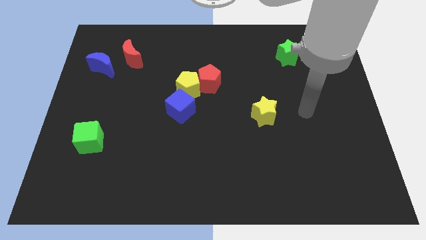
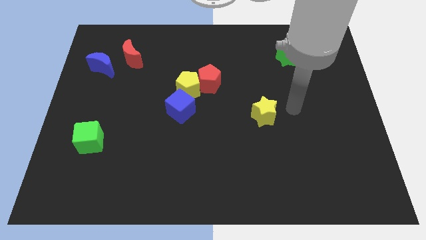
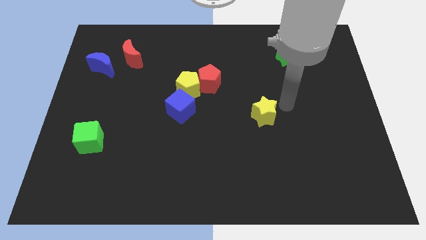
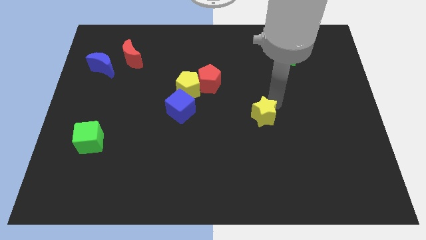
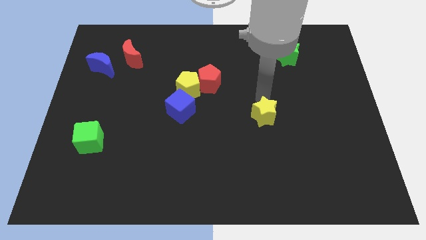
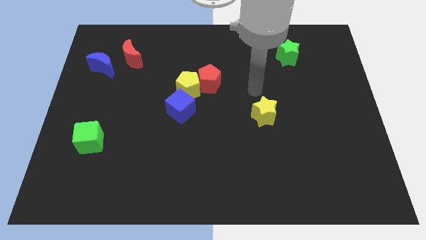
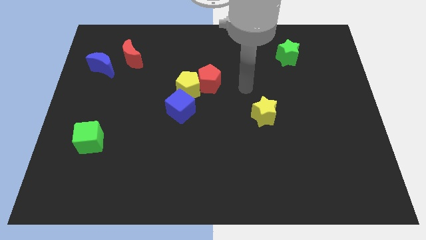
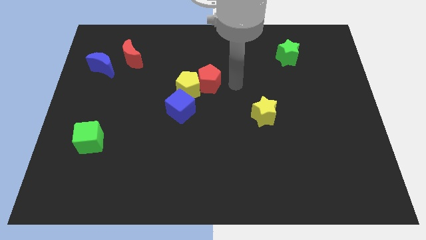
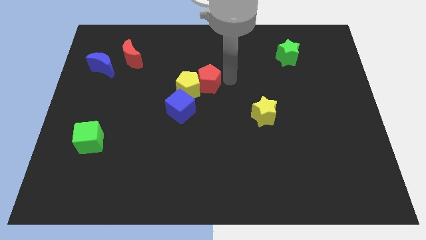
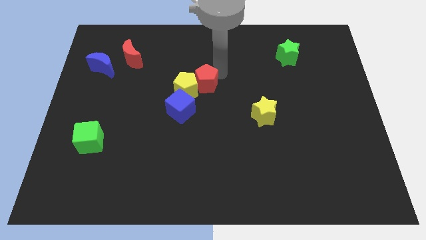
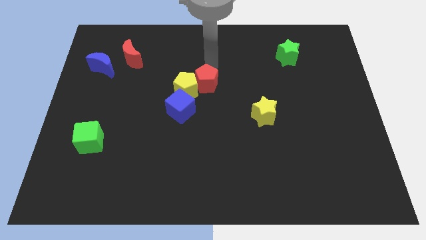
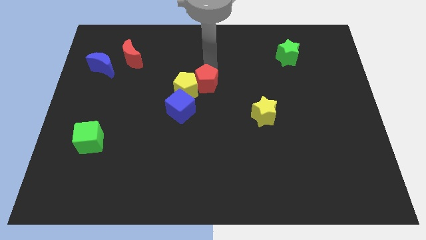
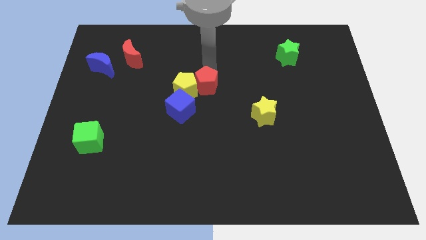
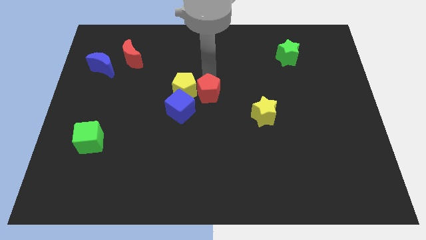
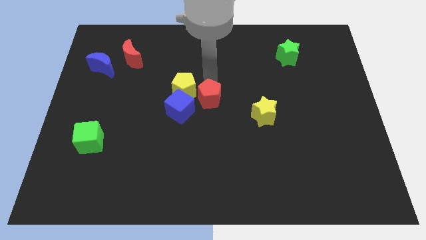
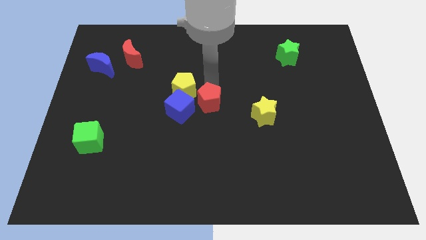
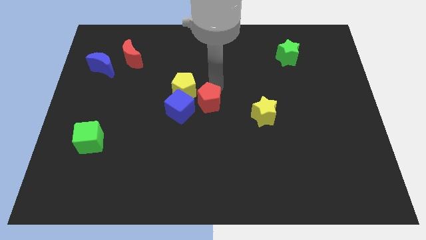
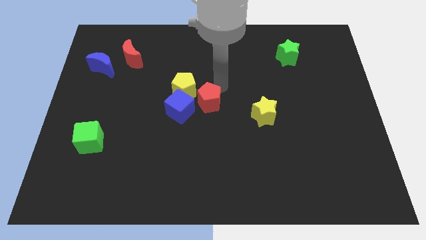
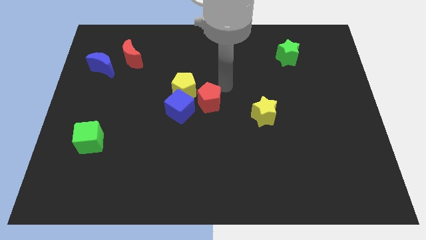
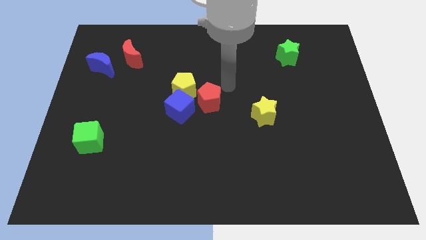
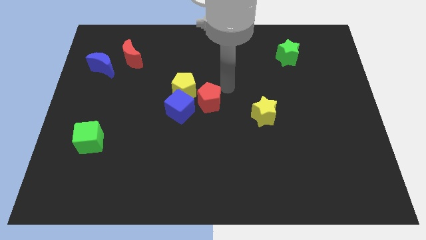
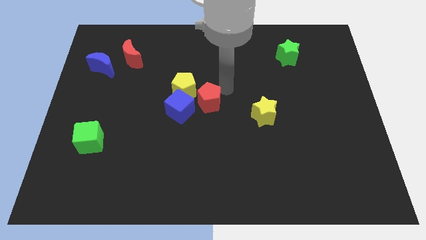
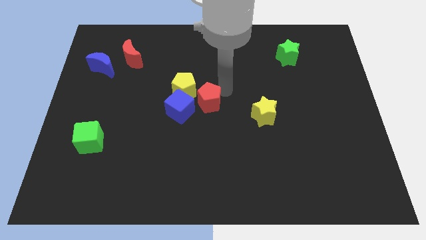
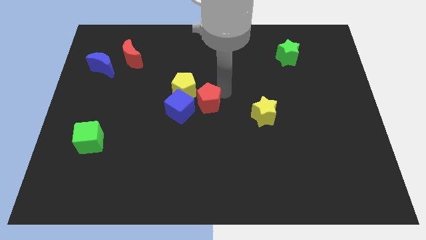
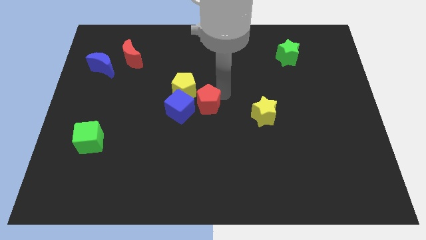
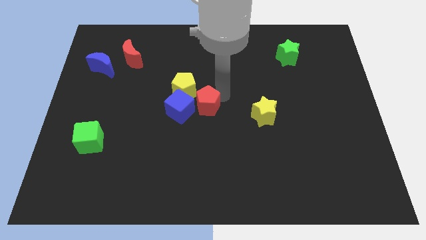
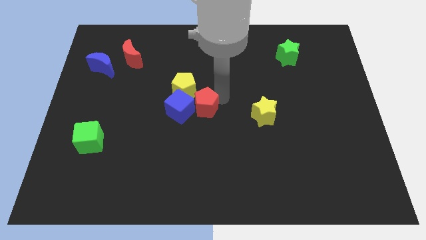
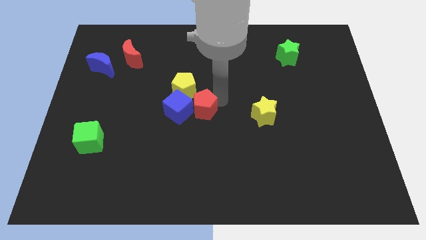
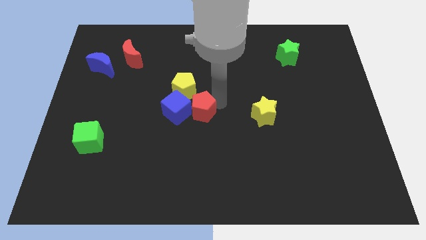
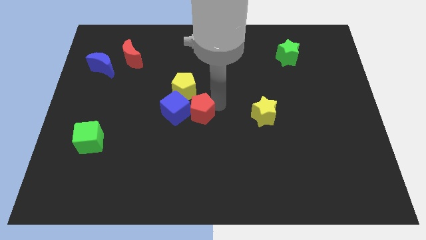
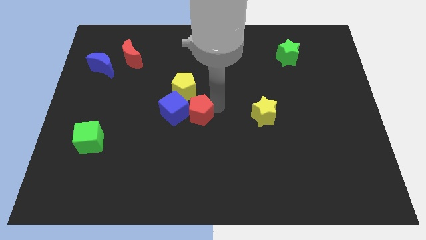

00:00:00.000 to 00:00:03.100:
slightly push the red pentagon diagonally down and left

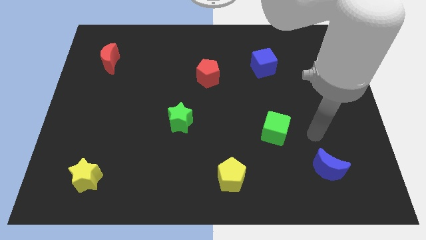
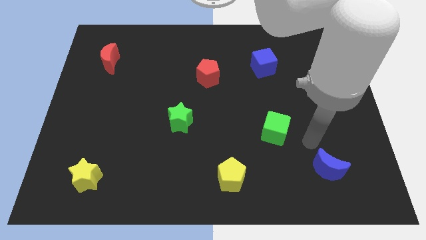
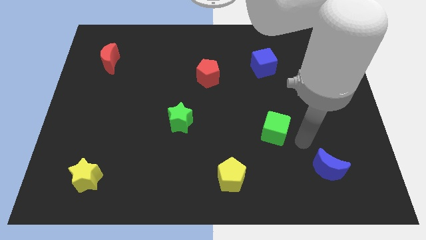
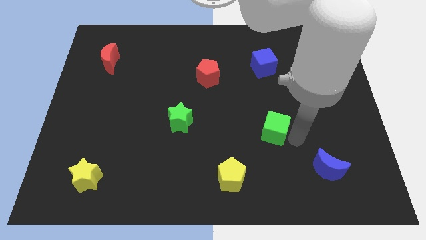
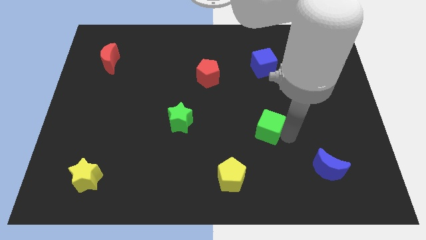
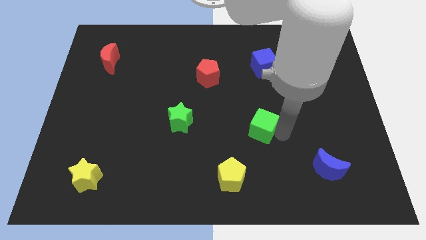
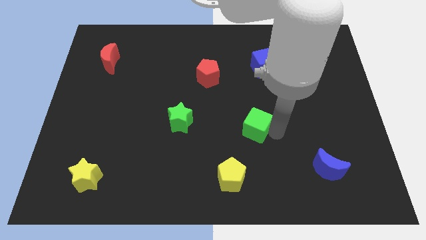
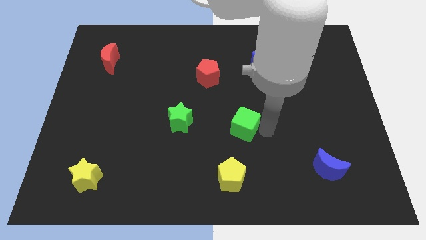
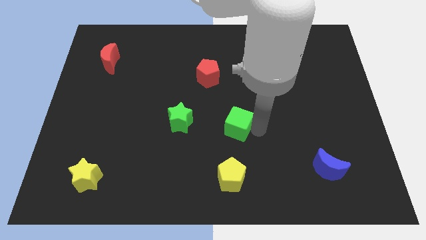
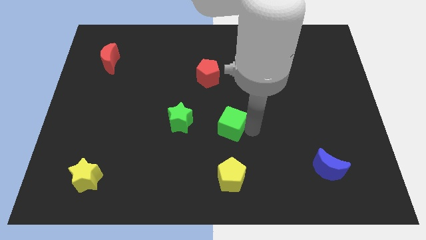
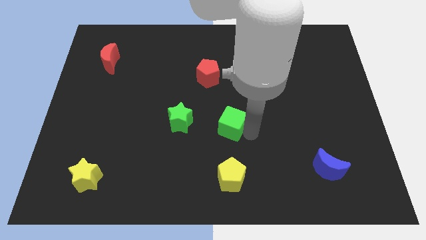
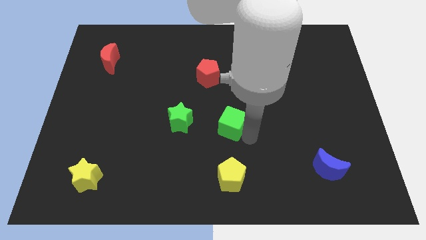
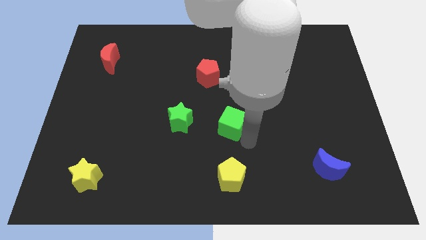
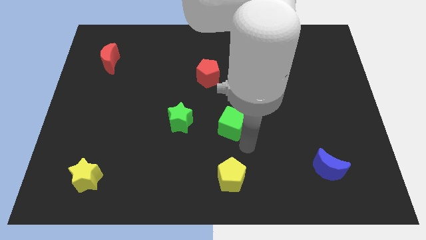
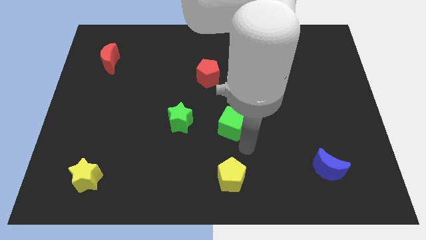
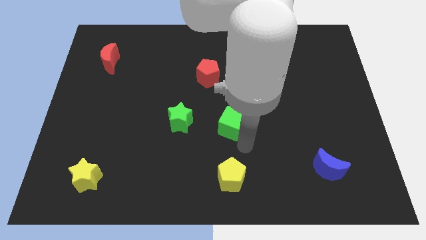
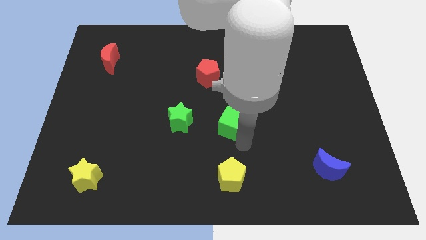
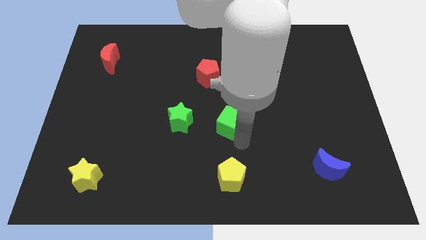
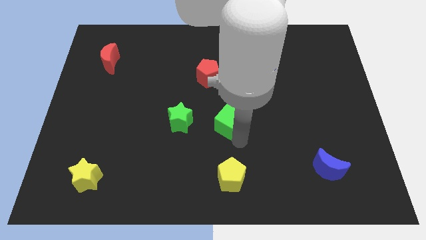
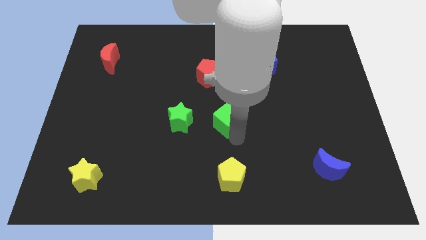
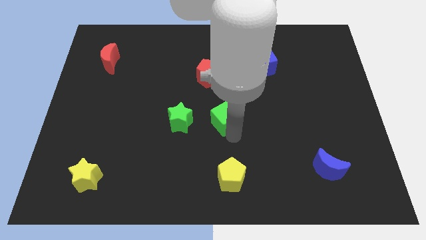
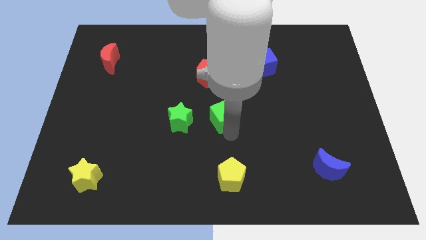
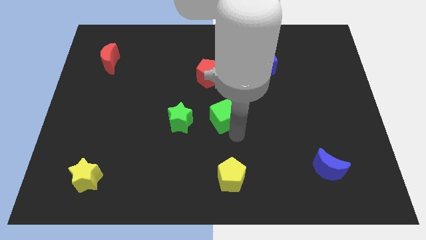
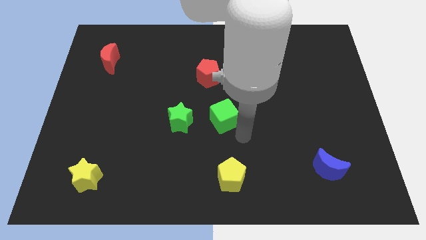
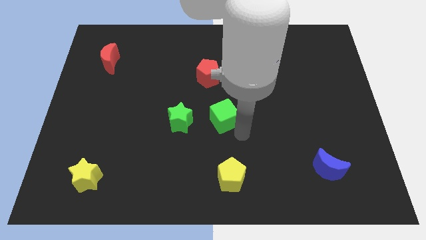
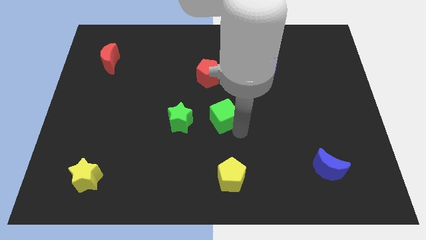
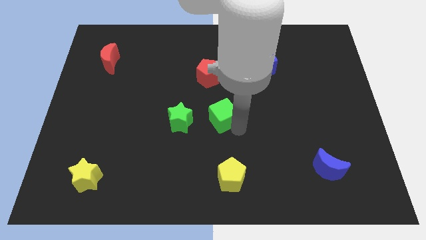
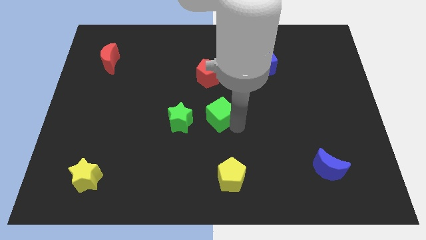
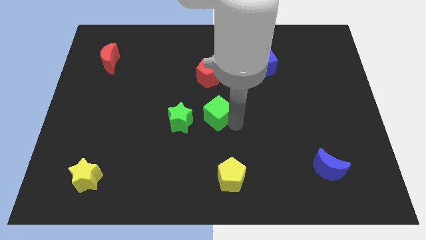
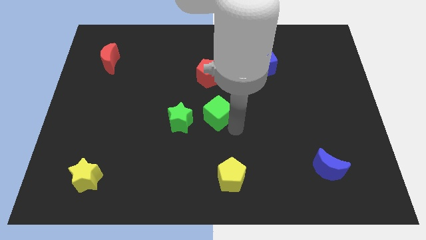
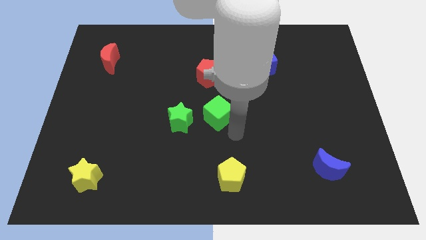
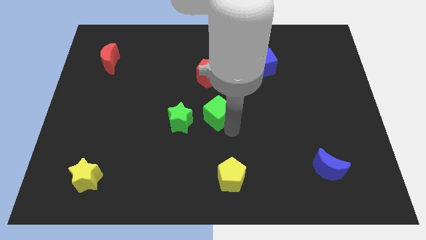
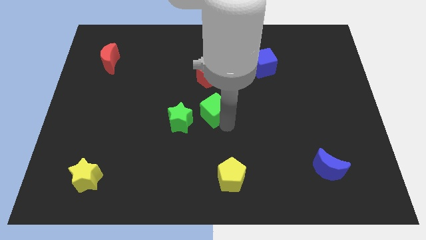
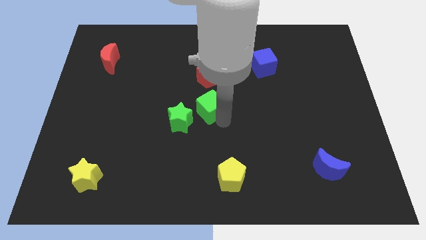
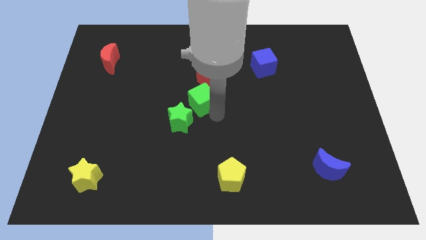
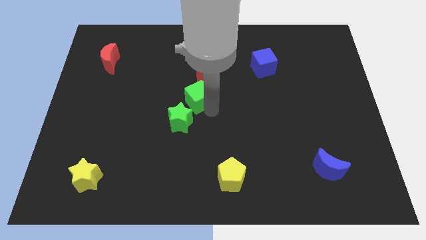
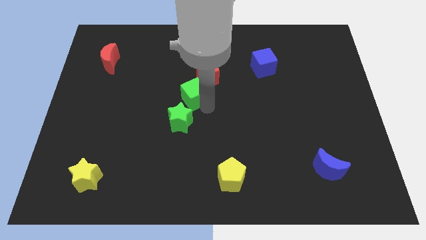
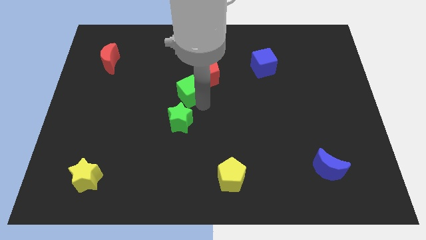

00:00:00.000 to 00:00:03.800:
move the green cube diagonally up and left

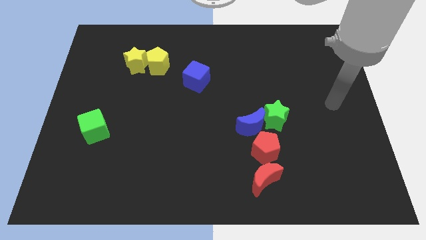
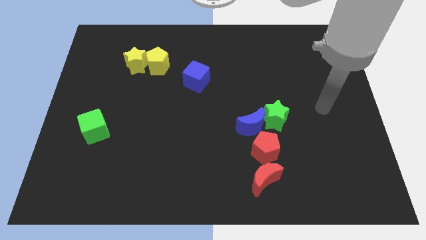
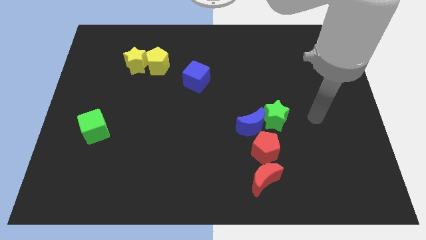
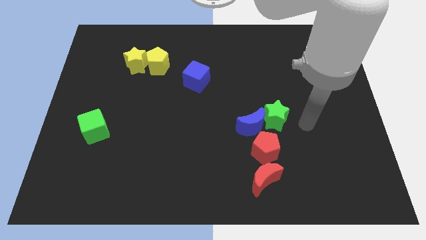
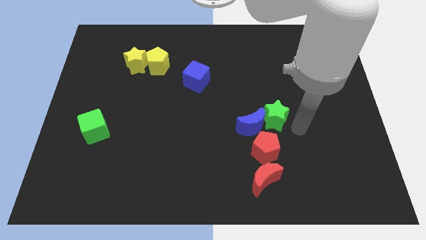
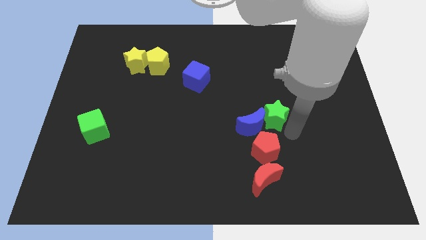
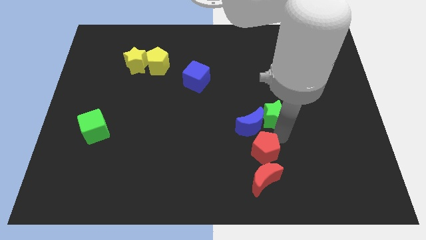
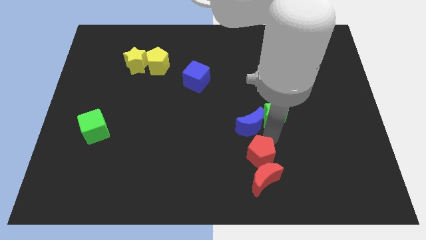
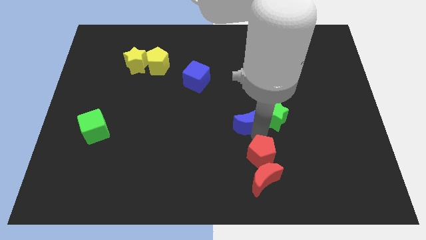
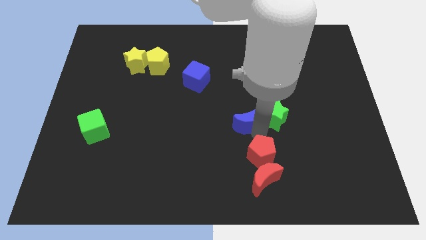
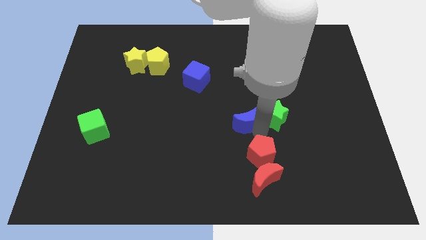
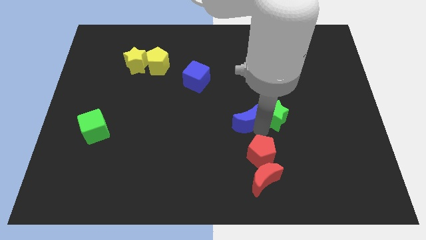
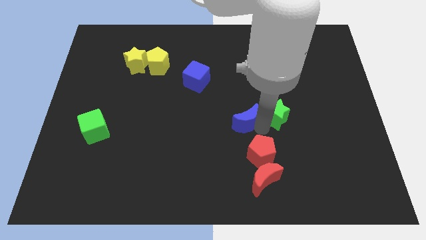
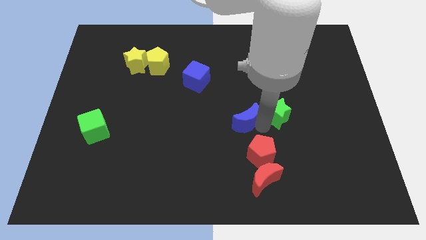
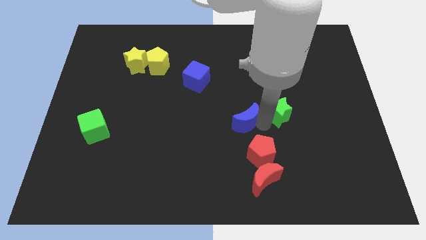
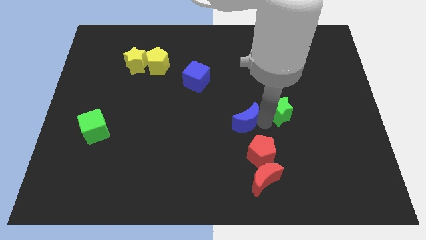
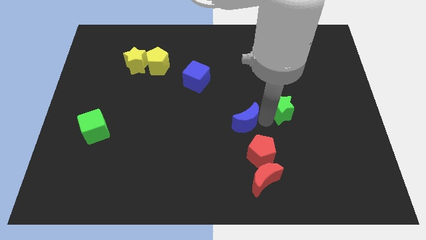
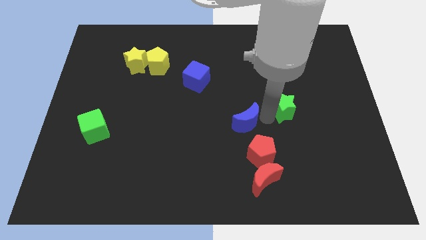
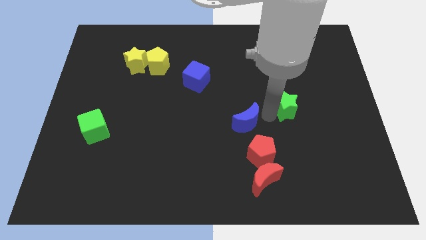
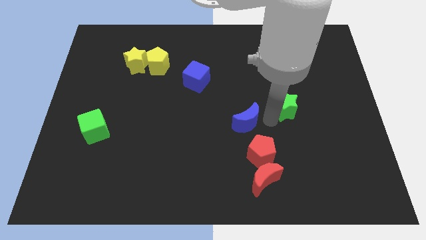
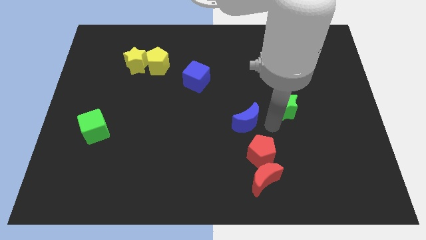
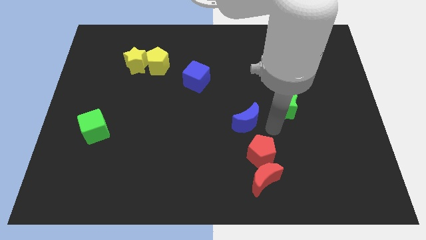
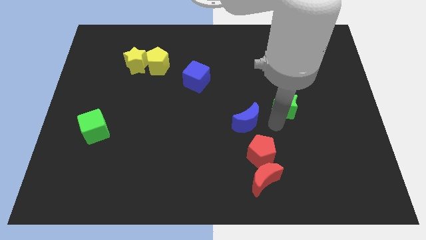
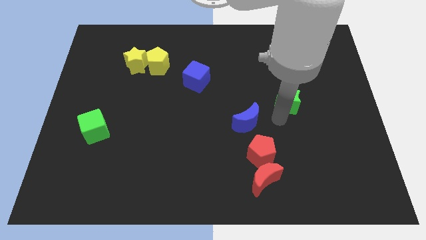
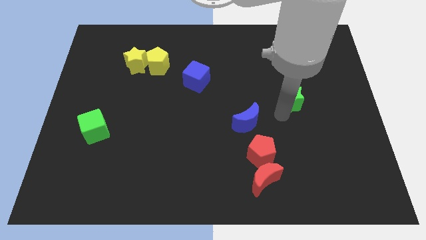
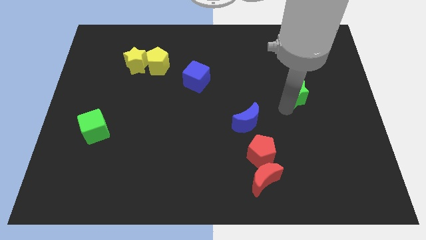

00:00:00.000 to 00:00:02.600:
slide the green star a little upwards and right diagonally
